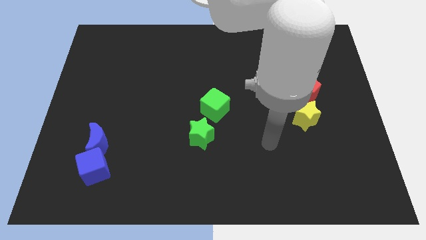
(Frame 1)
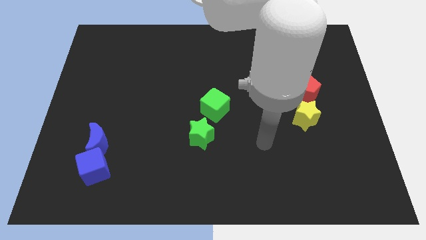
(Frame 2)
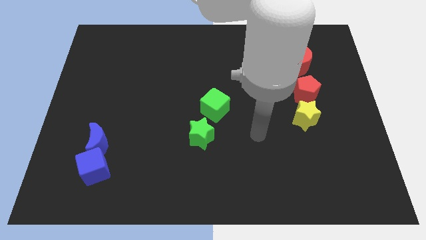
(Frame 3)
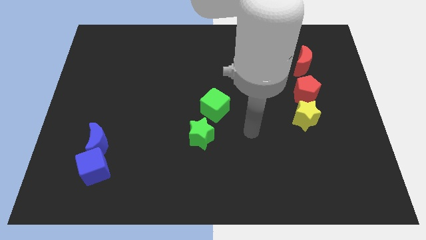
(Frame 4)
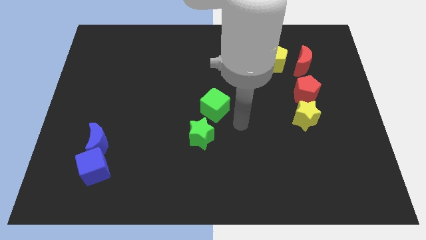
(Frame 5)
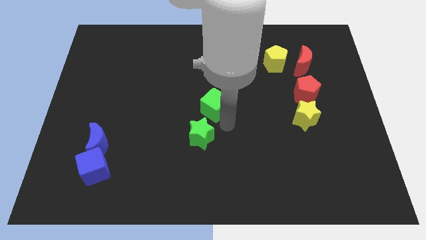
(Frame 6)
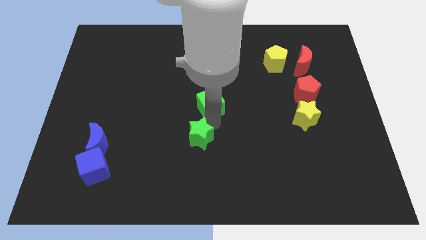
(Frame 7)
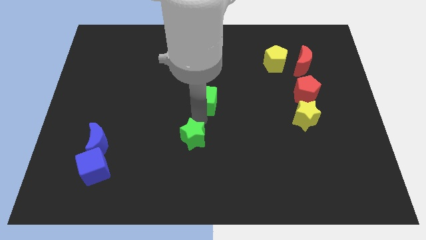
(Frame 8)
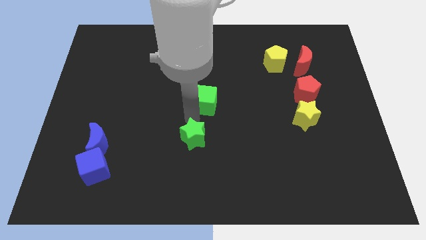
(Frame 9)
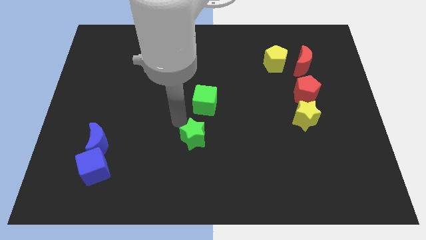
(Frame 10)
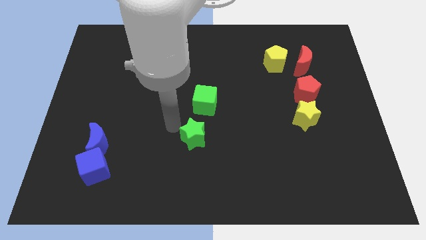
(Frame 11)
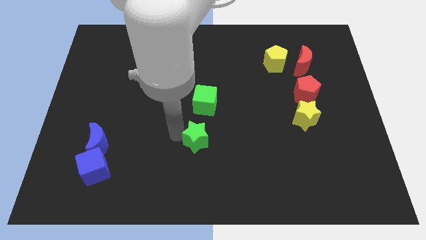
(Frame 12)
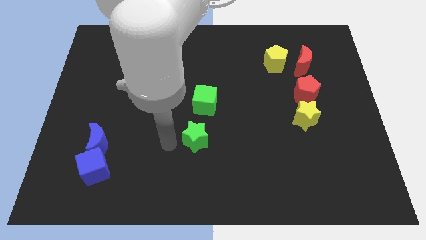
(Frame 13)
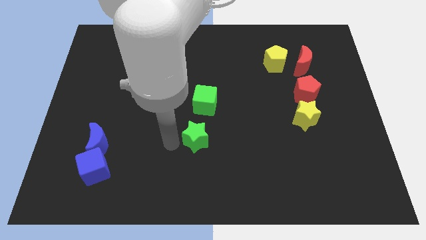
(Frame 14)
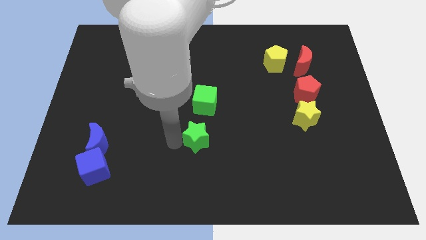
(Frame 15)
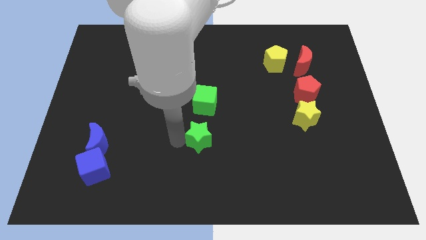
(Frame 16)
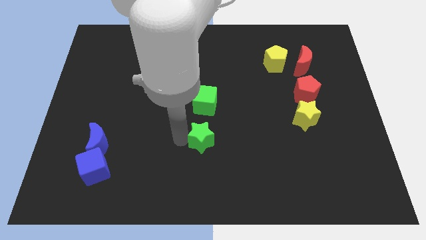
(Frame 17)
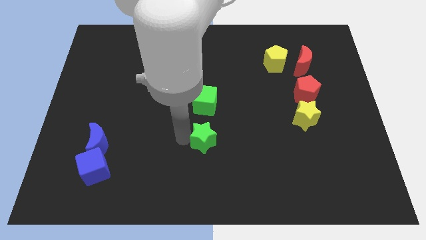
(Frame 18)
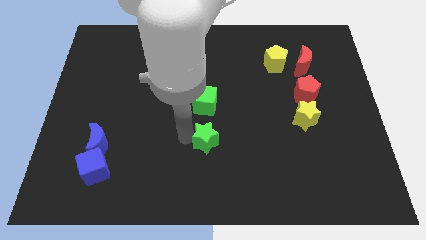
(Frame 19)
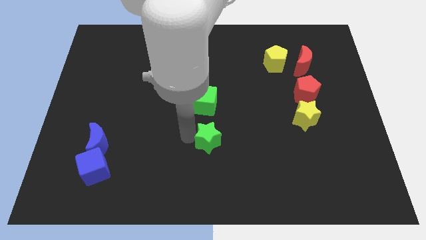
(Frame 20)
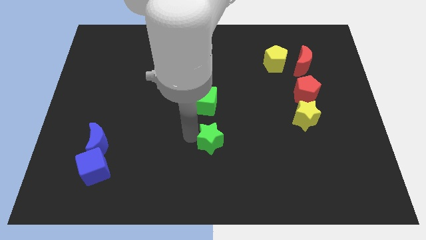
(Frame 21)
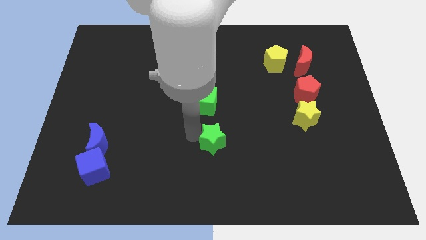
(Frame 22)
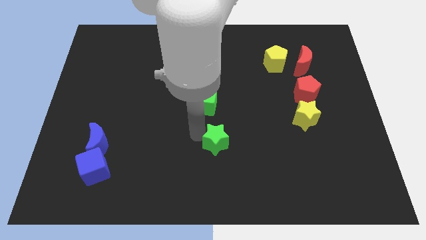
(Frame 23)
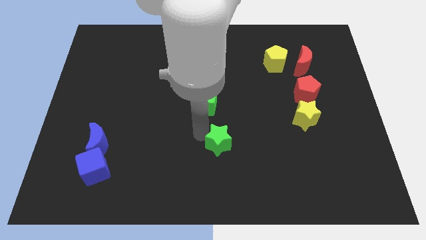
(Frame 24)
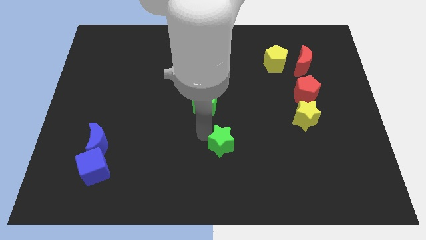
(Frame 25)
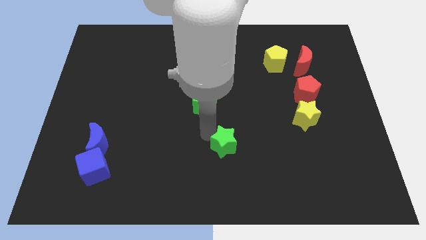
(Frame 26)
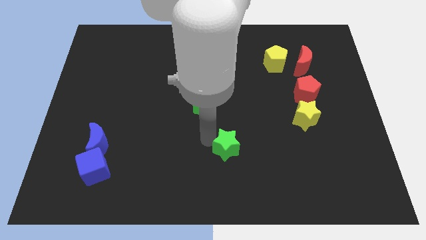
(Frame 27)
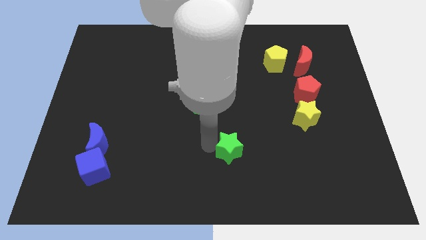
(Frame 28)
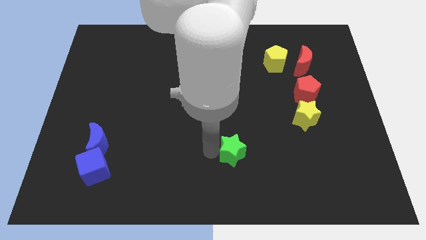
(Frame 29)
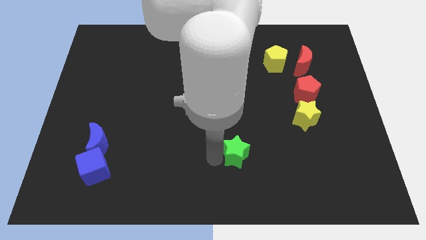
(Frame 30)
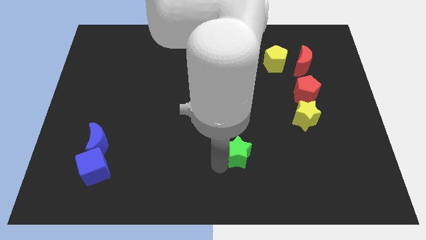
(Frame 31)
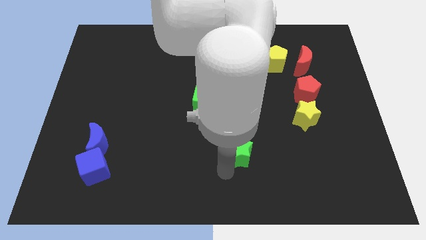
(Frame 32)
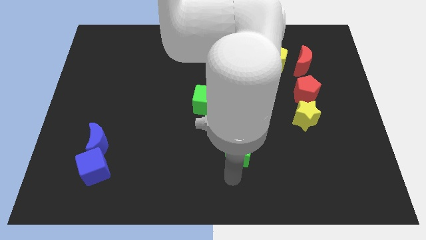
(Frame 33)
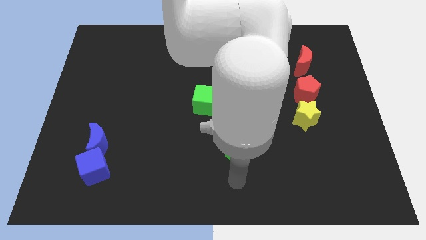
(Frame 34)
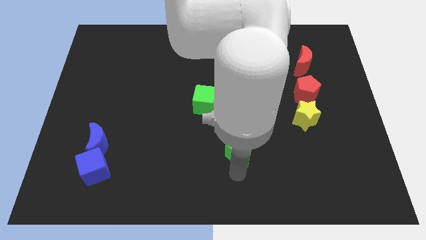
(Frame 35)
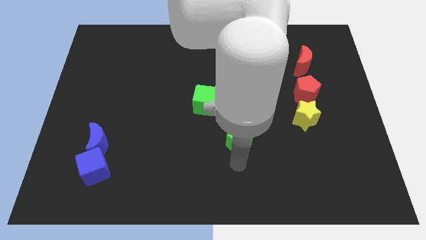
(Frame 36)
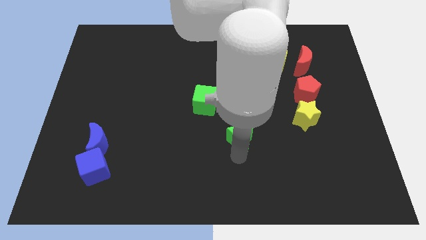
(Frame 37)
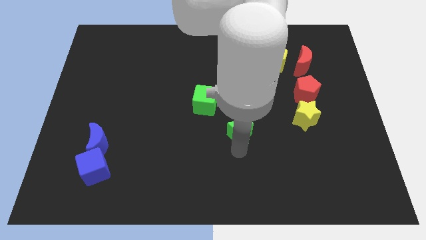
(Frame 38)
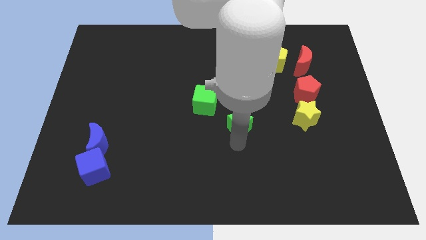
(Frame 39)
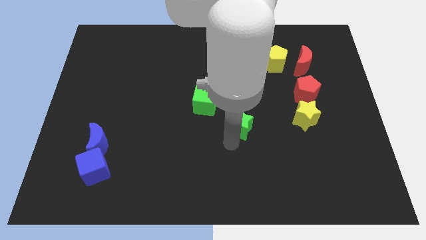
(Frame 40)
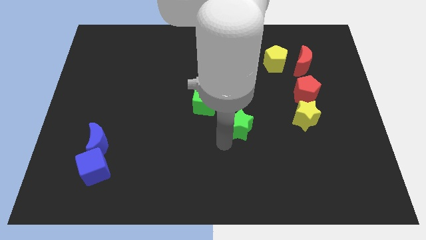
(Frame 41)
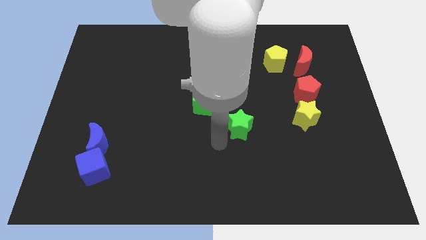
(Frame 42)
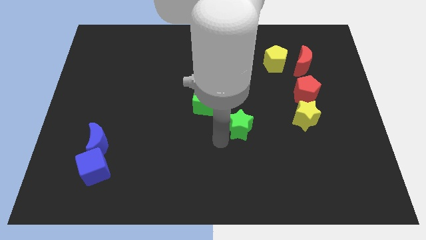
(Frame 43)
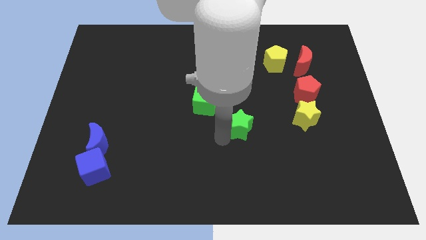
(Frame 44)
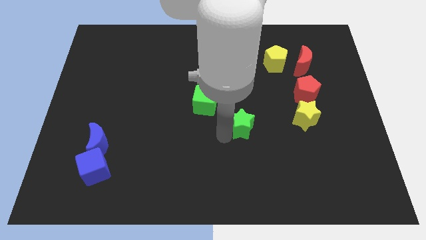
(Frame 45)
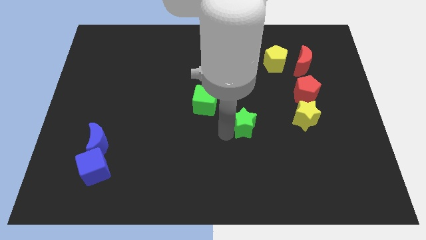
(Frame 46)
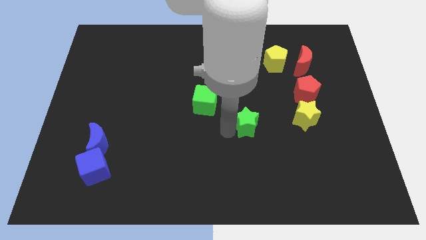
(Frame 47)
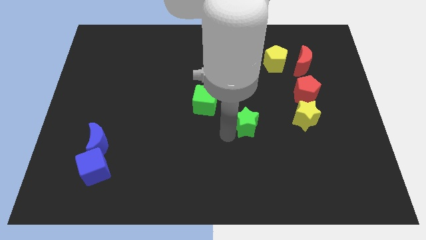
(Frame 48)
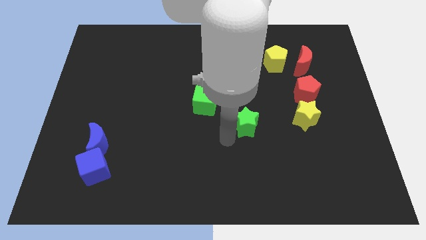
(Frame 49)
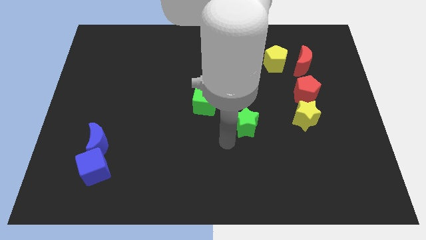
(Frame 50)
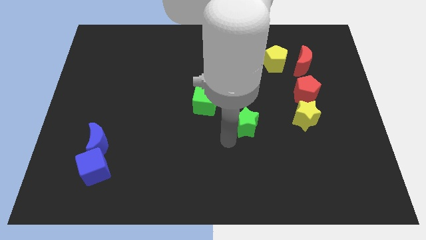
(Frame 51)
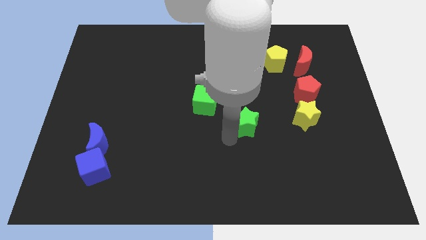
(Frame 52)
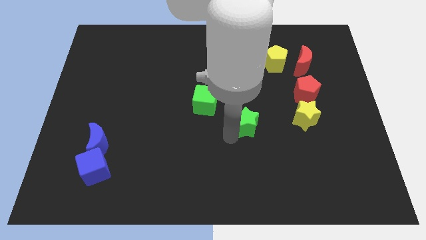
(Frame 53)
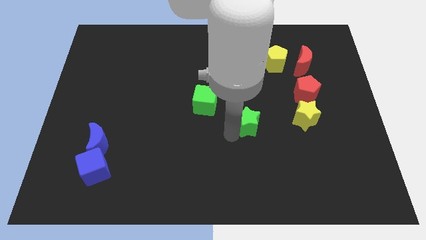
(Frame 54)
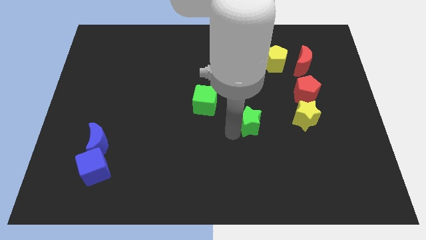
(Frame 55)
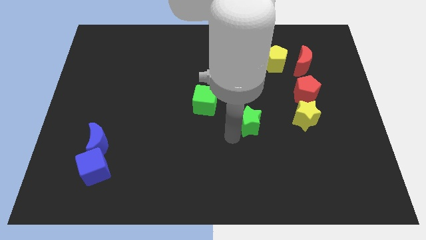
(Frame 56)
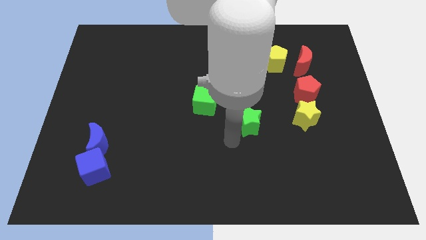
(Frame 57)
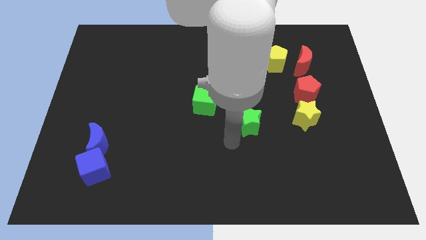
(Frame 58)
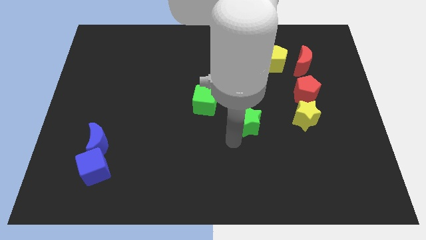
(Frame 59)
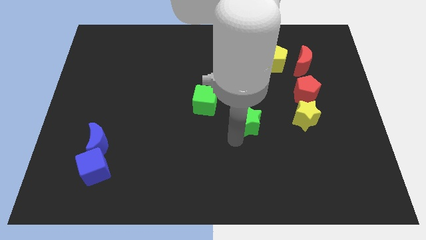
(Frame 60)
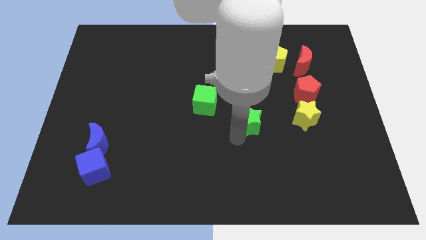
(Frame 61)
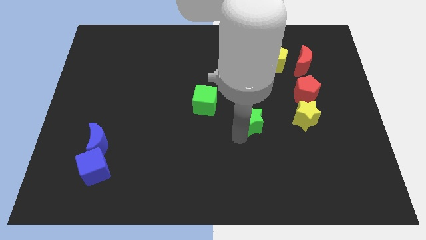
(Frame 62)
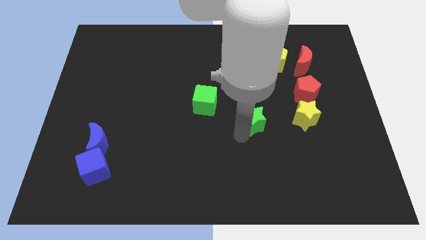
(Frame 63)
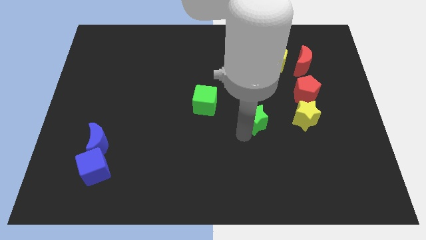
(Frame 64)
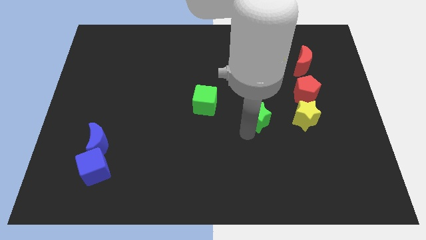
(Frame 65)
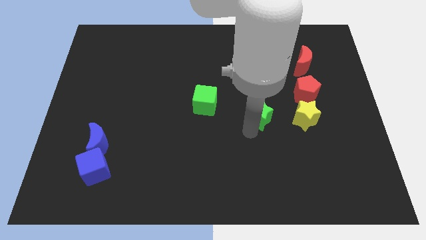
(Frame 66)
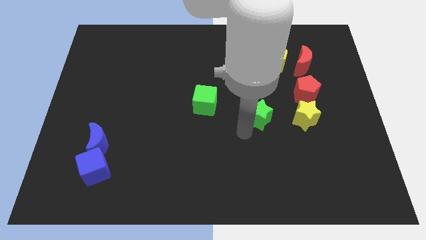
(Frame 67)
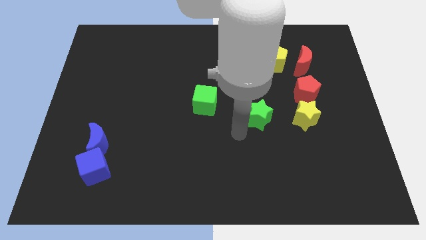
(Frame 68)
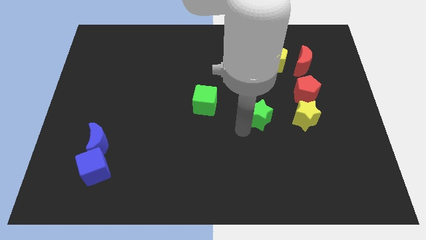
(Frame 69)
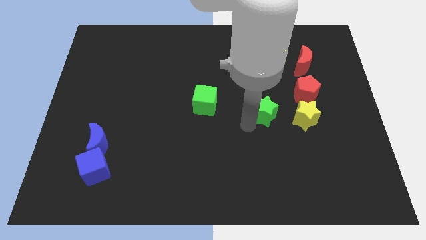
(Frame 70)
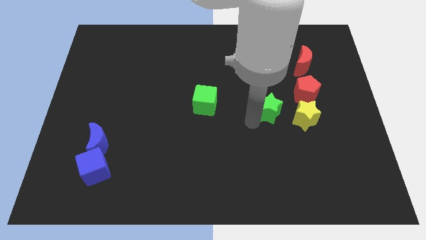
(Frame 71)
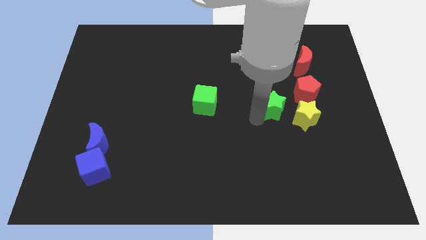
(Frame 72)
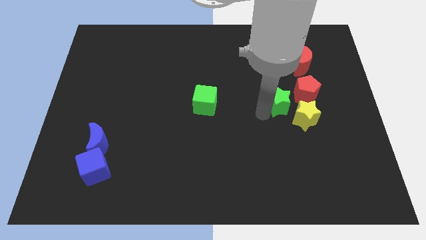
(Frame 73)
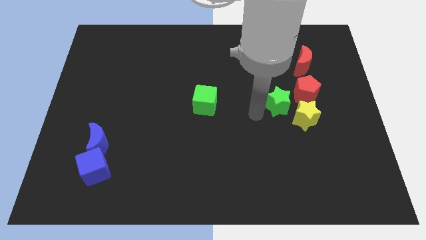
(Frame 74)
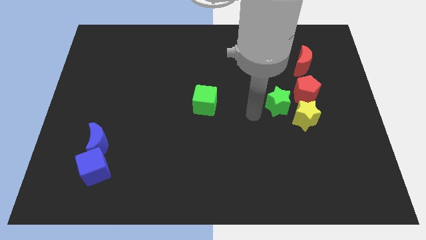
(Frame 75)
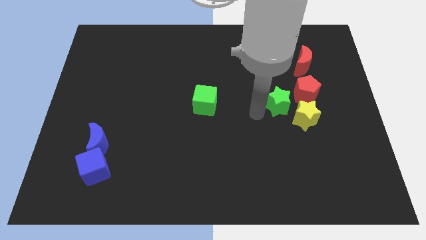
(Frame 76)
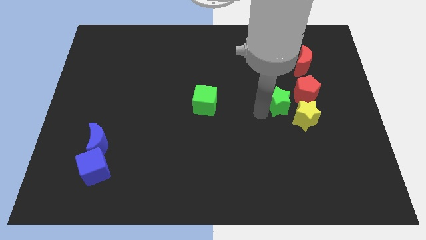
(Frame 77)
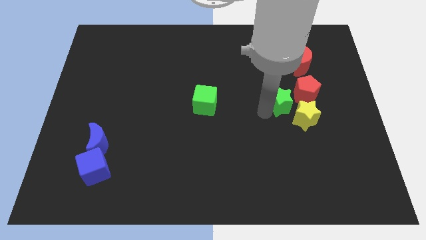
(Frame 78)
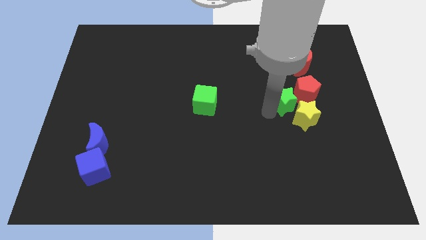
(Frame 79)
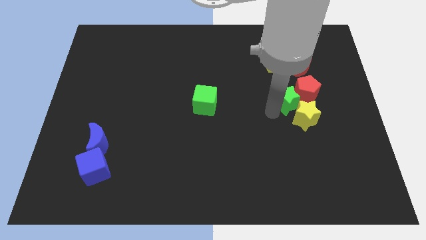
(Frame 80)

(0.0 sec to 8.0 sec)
slide the green star close to the red pentagon
